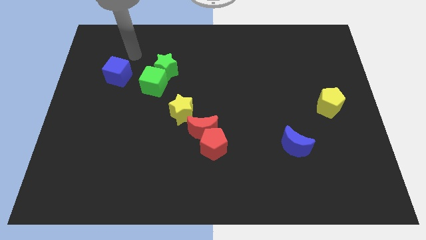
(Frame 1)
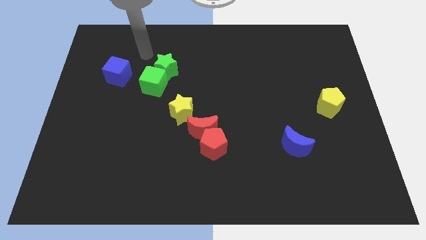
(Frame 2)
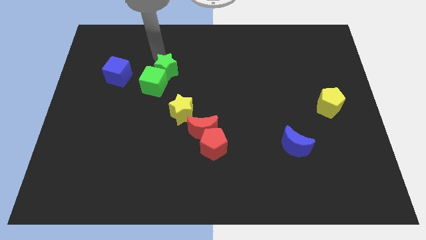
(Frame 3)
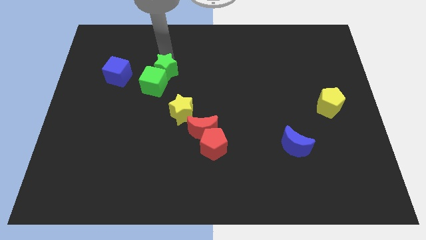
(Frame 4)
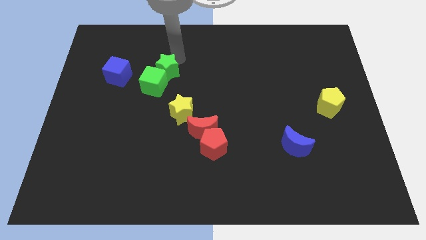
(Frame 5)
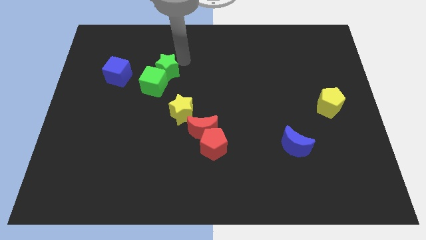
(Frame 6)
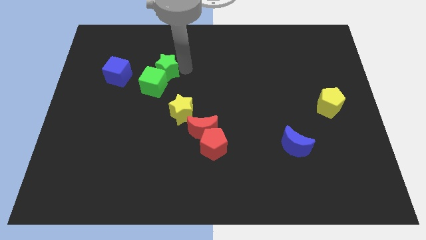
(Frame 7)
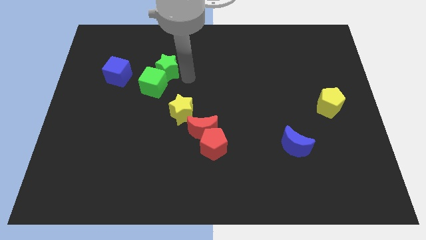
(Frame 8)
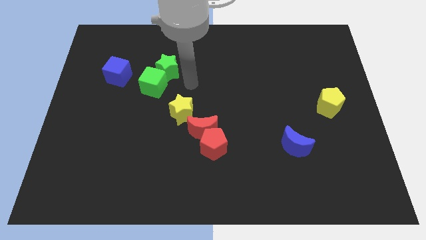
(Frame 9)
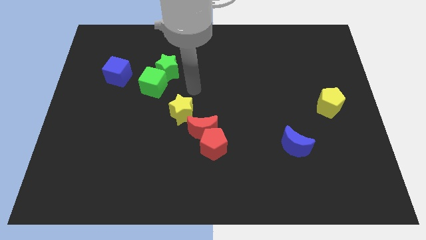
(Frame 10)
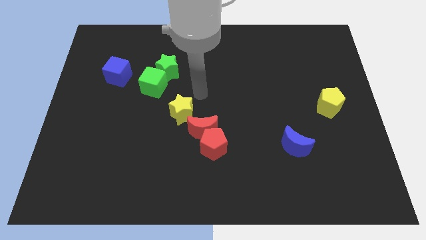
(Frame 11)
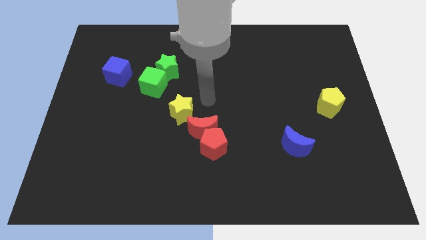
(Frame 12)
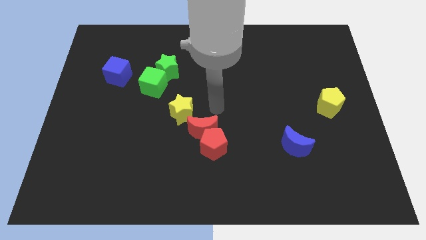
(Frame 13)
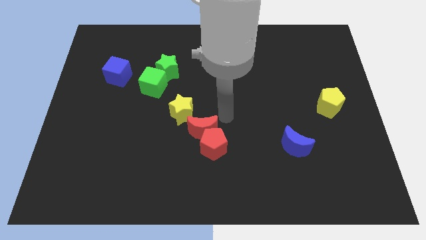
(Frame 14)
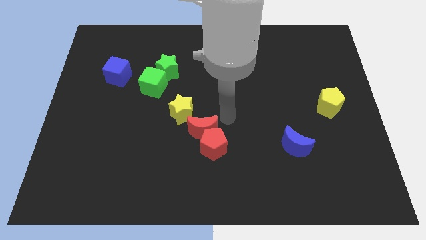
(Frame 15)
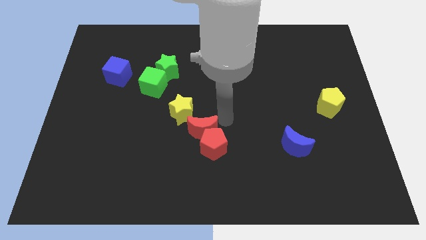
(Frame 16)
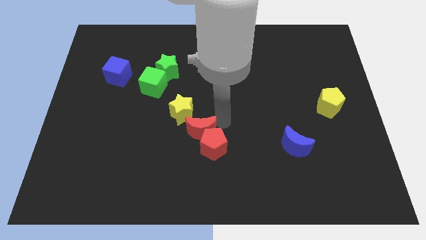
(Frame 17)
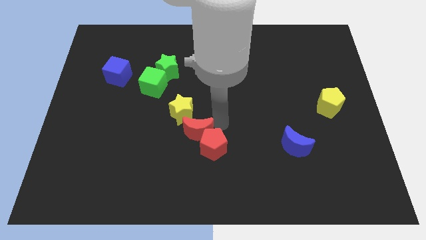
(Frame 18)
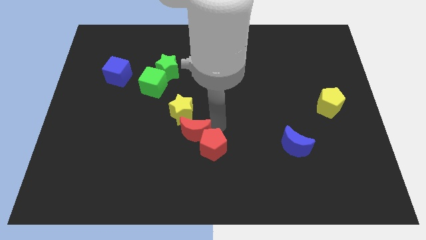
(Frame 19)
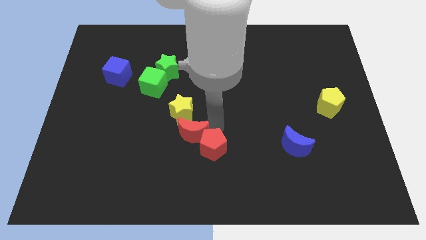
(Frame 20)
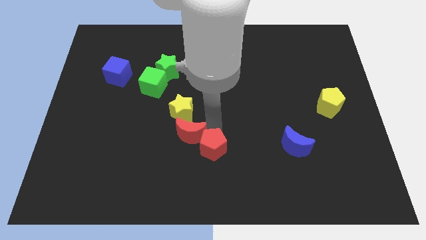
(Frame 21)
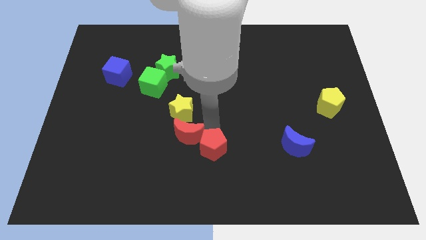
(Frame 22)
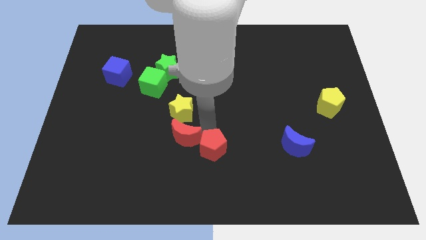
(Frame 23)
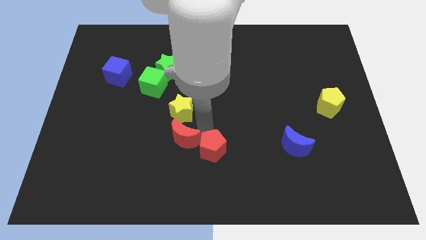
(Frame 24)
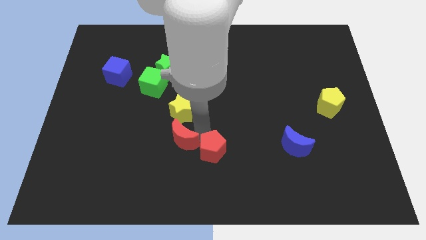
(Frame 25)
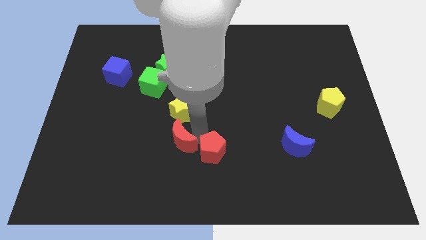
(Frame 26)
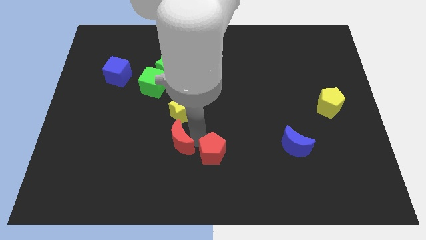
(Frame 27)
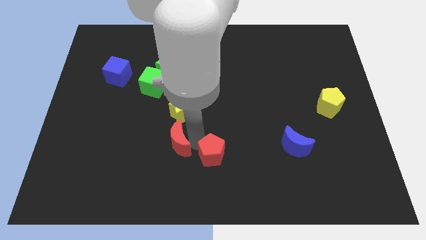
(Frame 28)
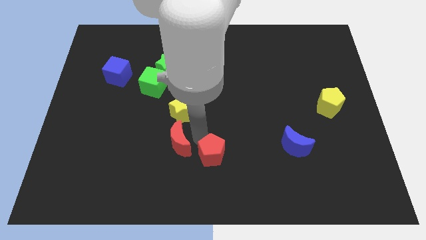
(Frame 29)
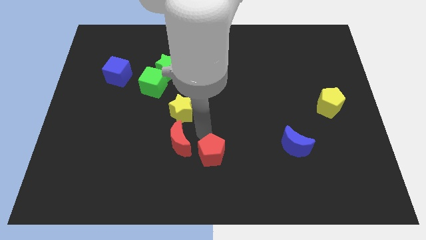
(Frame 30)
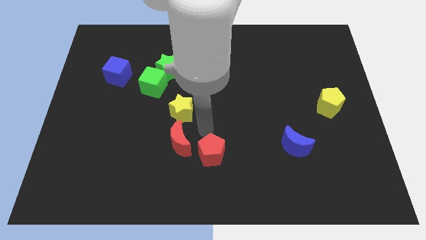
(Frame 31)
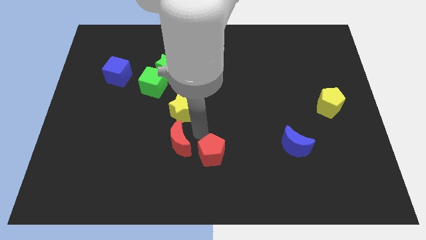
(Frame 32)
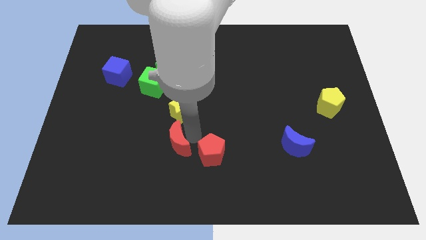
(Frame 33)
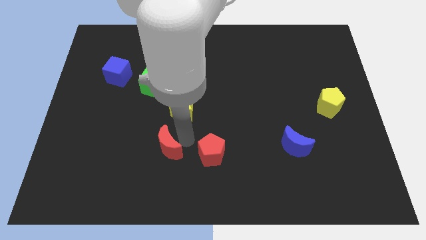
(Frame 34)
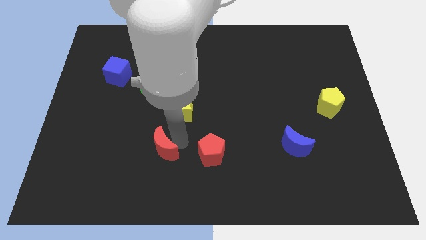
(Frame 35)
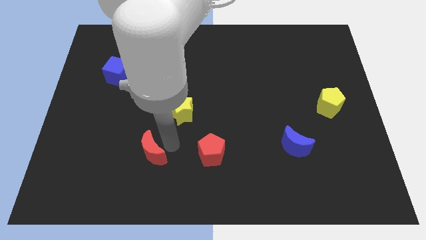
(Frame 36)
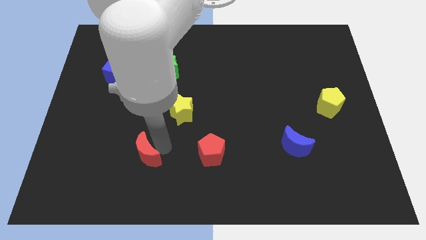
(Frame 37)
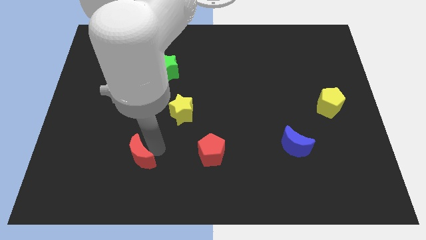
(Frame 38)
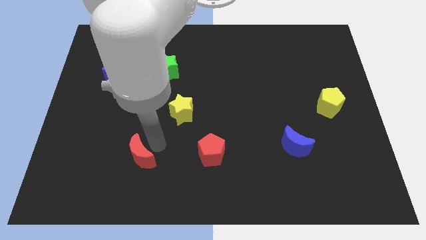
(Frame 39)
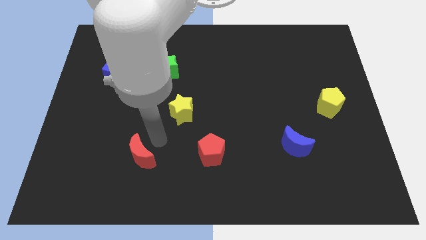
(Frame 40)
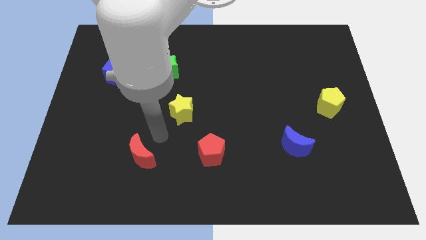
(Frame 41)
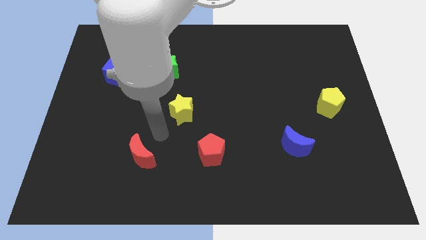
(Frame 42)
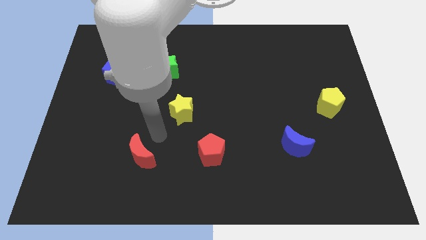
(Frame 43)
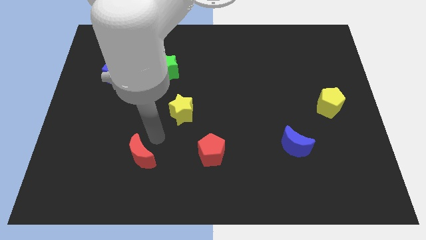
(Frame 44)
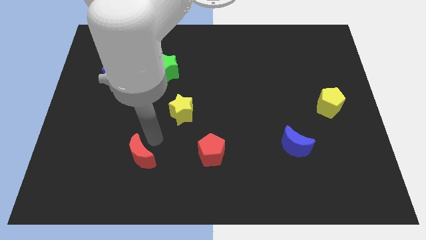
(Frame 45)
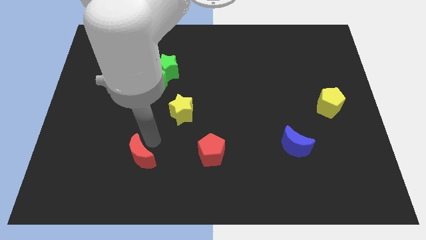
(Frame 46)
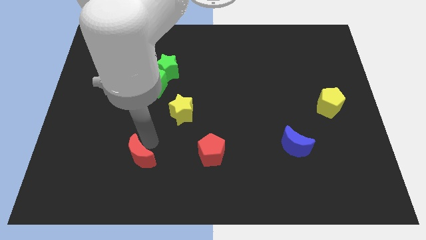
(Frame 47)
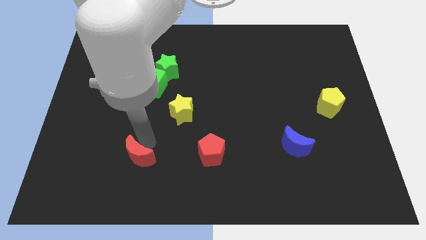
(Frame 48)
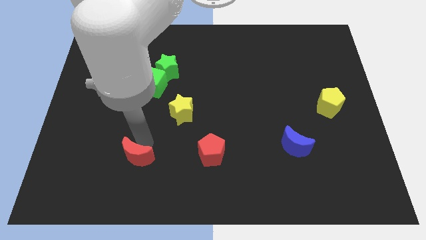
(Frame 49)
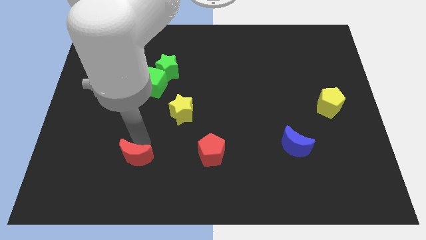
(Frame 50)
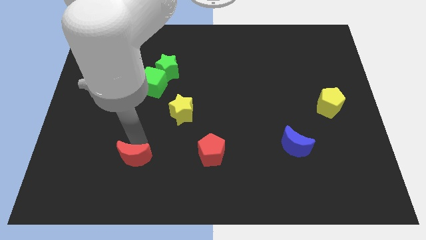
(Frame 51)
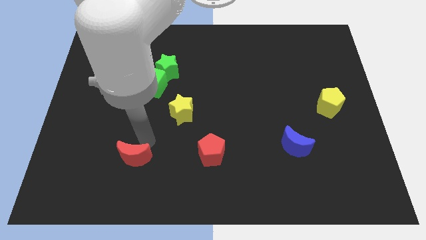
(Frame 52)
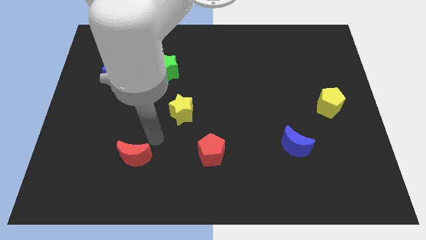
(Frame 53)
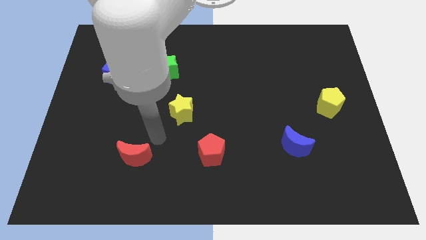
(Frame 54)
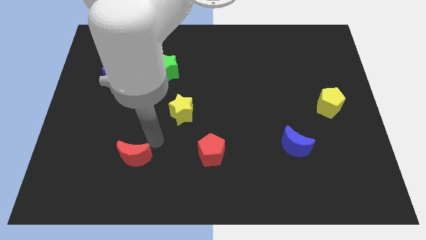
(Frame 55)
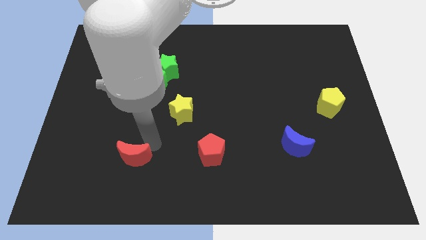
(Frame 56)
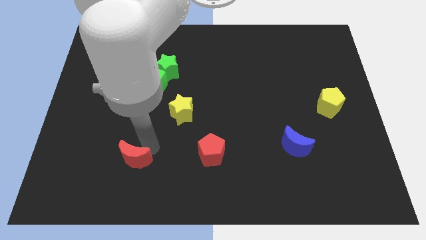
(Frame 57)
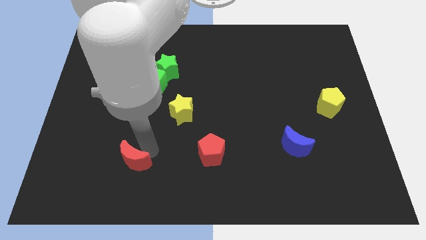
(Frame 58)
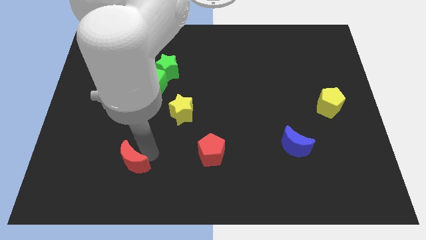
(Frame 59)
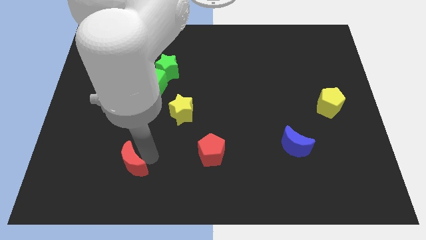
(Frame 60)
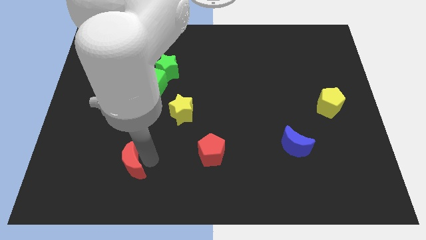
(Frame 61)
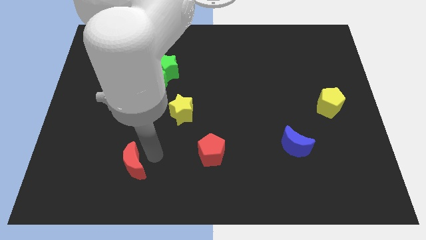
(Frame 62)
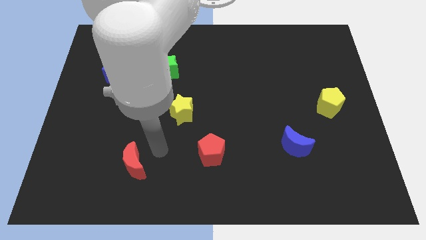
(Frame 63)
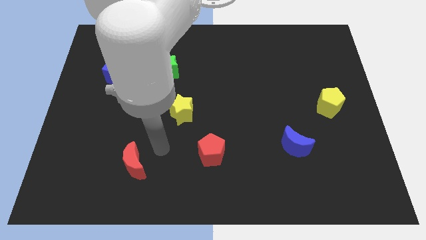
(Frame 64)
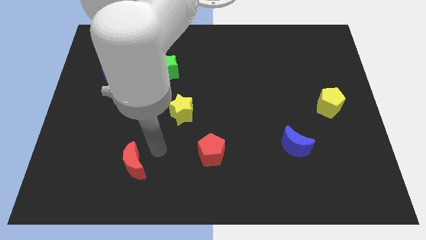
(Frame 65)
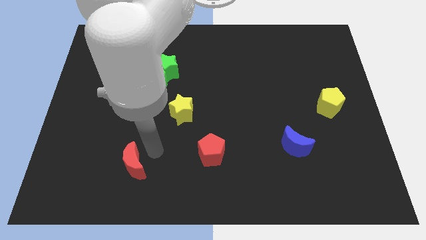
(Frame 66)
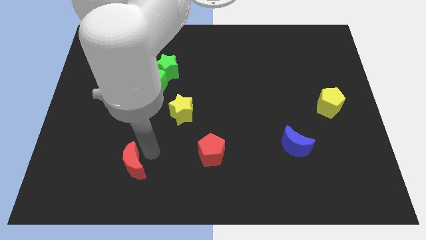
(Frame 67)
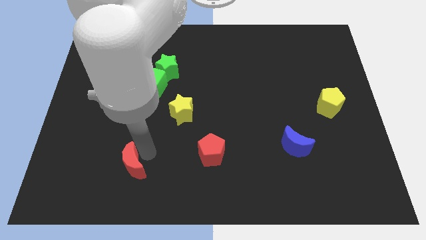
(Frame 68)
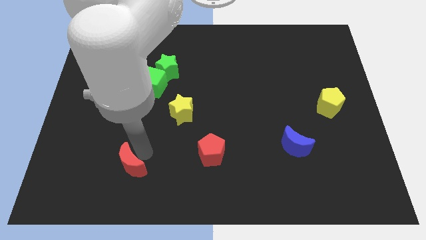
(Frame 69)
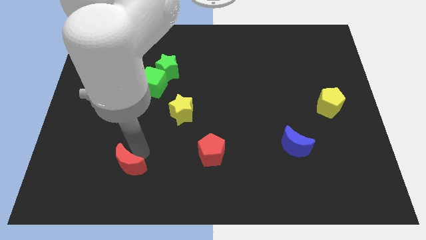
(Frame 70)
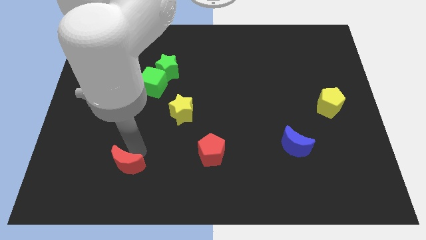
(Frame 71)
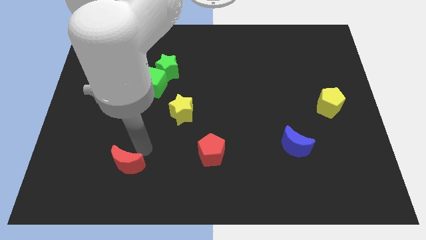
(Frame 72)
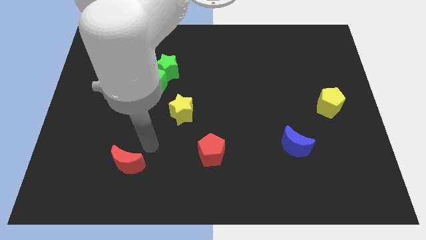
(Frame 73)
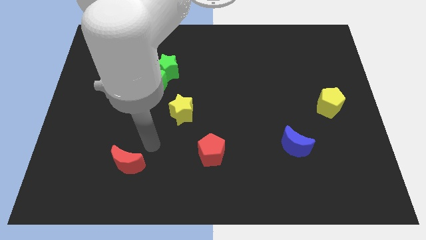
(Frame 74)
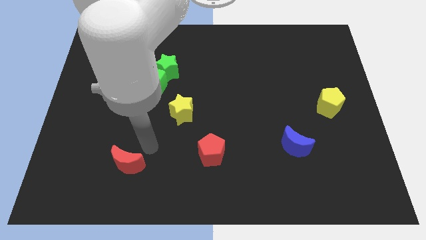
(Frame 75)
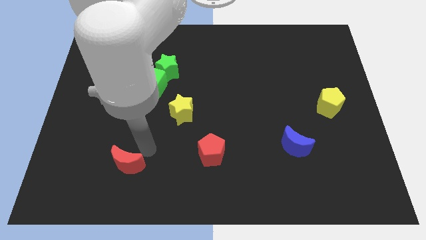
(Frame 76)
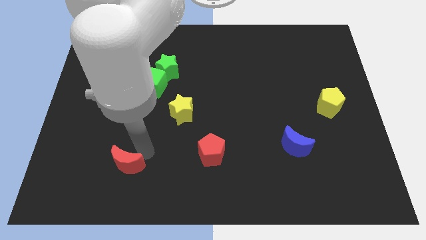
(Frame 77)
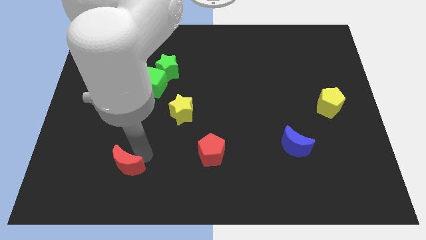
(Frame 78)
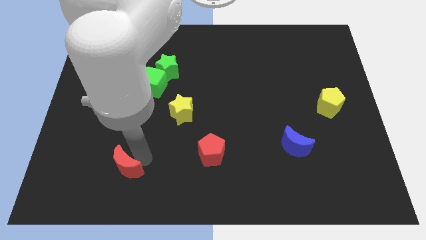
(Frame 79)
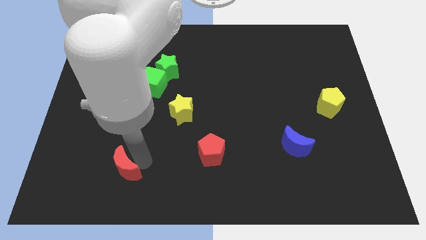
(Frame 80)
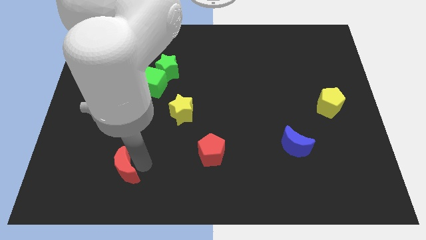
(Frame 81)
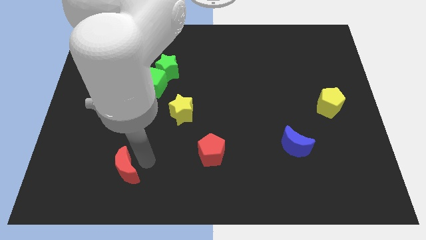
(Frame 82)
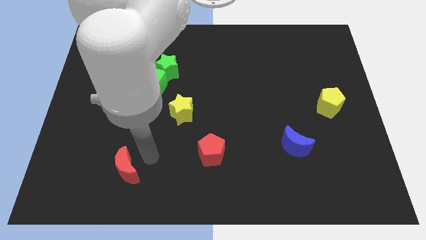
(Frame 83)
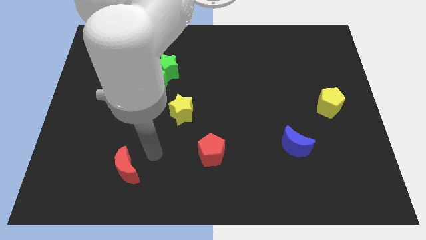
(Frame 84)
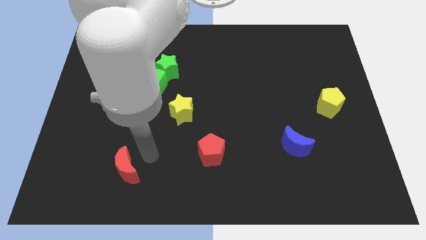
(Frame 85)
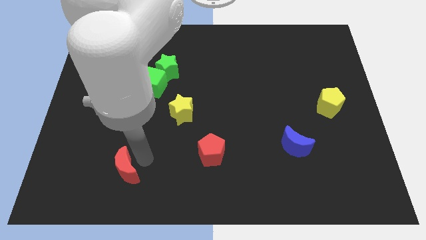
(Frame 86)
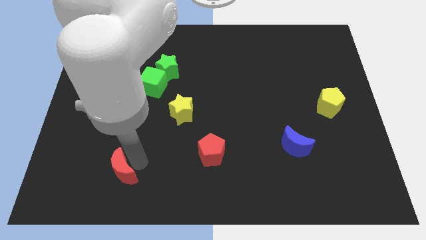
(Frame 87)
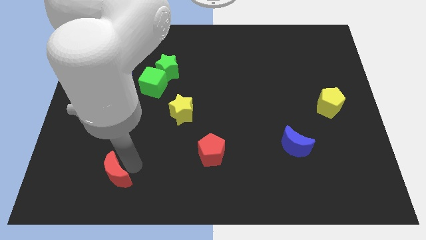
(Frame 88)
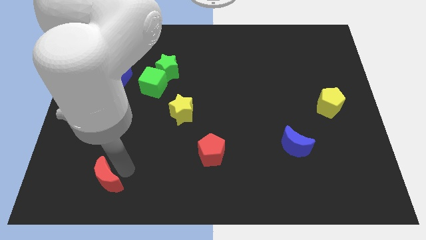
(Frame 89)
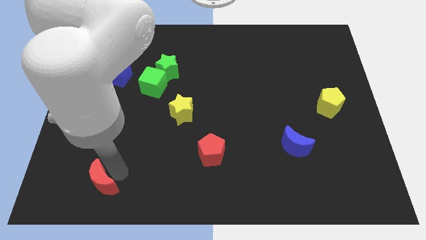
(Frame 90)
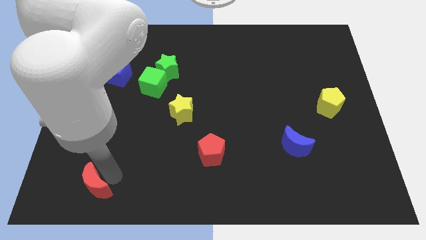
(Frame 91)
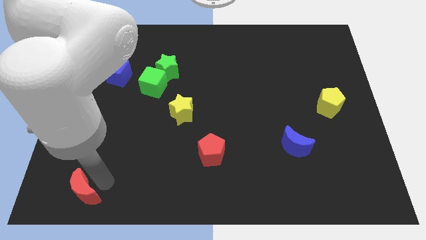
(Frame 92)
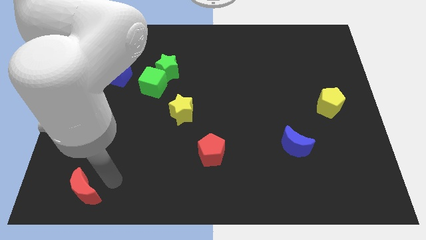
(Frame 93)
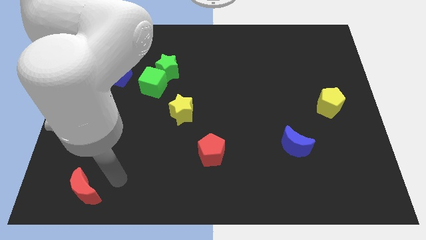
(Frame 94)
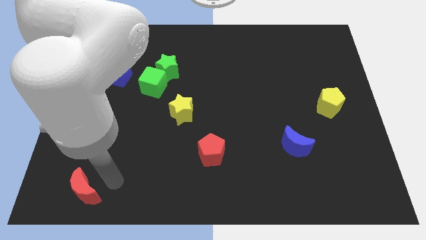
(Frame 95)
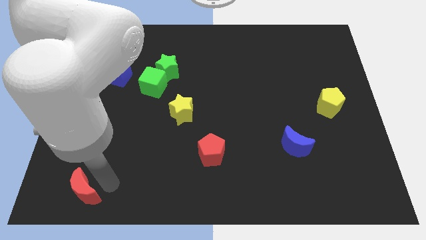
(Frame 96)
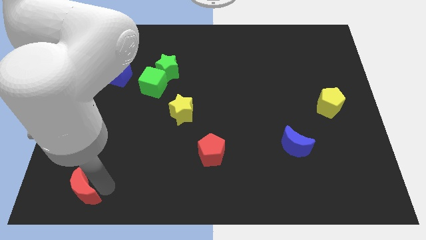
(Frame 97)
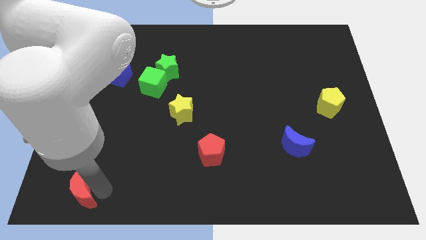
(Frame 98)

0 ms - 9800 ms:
put the red moon to the bottom left corner
